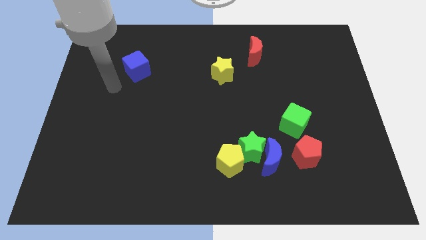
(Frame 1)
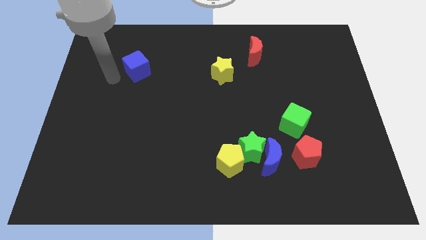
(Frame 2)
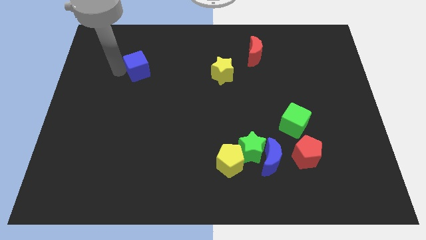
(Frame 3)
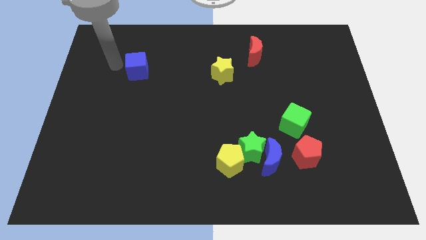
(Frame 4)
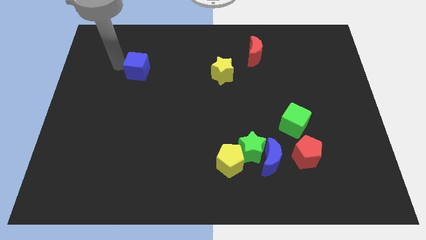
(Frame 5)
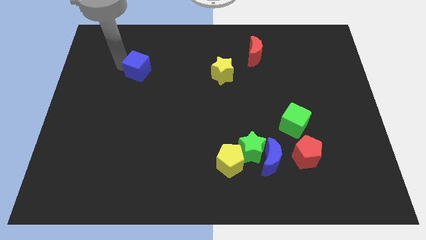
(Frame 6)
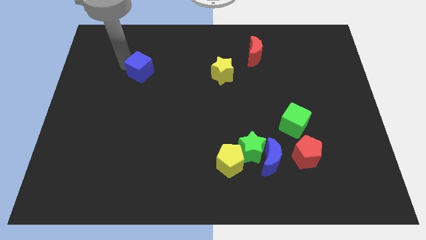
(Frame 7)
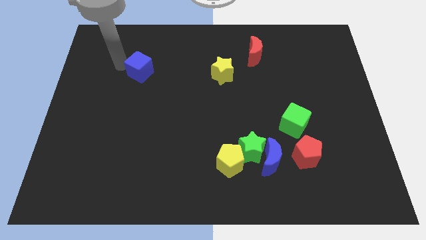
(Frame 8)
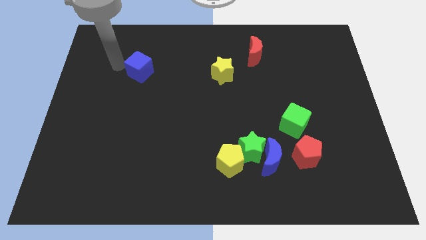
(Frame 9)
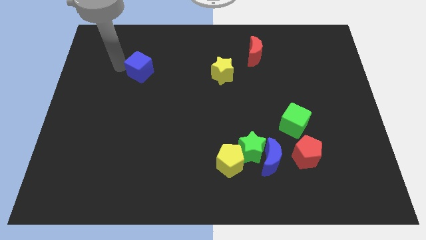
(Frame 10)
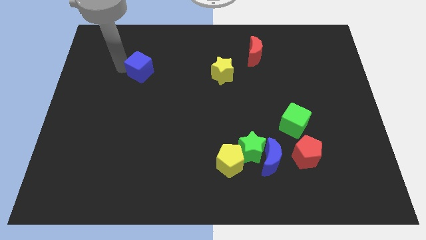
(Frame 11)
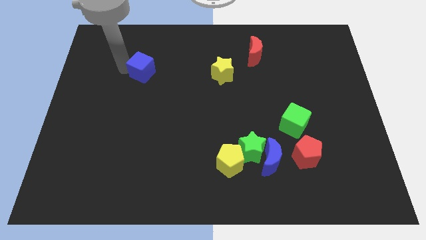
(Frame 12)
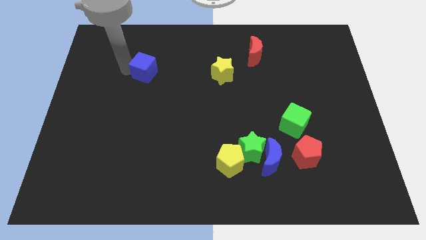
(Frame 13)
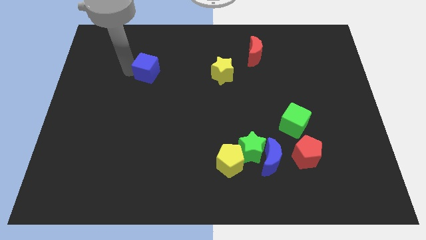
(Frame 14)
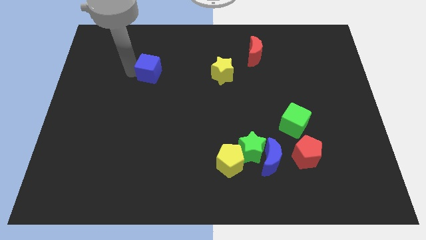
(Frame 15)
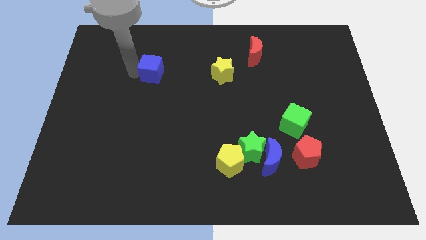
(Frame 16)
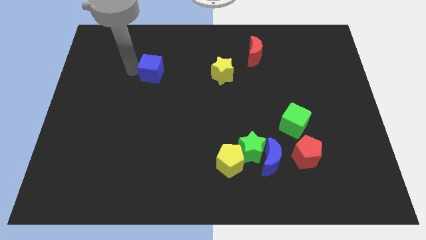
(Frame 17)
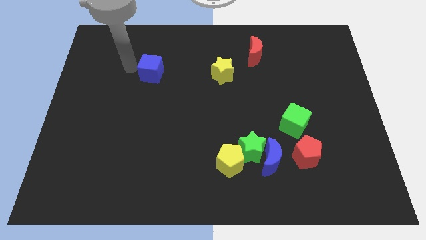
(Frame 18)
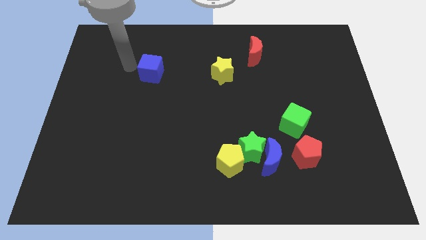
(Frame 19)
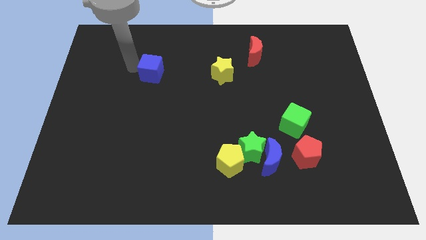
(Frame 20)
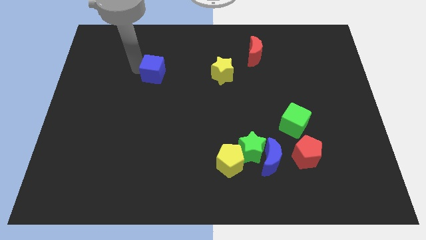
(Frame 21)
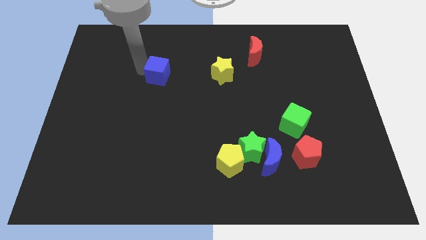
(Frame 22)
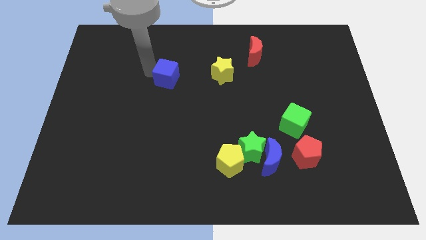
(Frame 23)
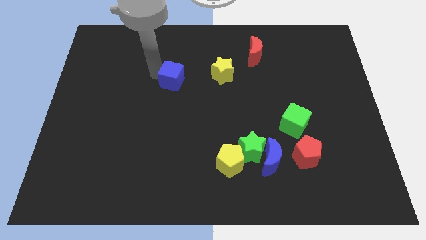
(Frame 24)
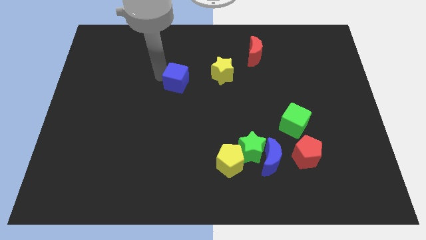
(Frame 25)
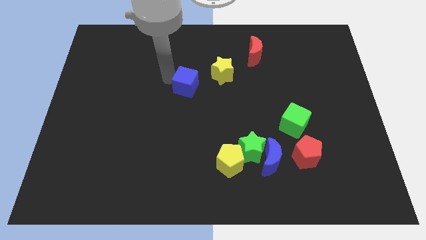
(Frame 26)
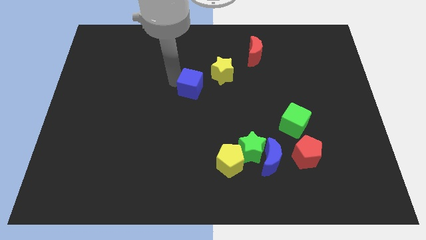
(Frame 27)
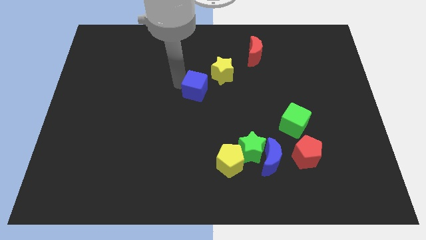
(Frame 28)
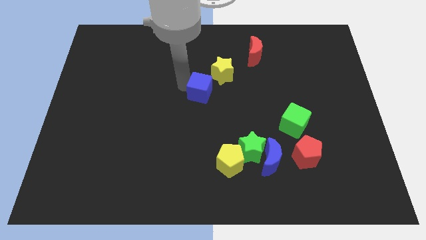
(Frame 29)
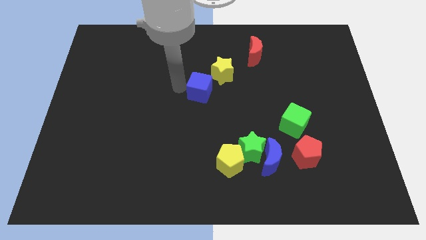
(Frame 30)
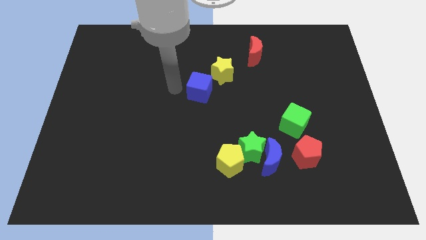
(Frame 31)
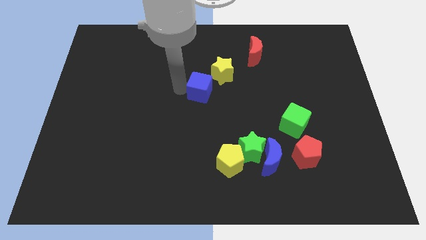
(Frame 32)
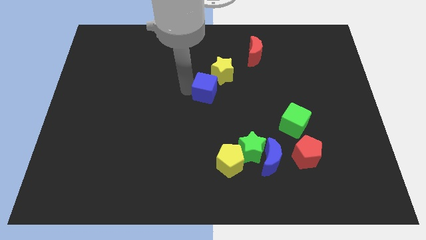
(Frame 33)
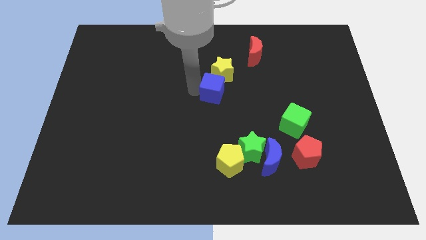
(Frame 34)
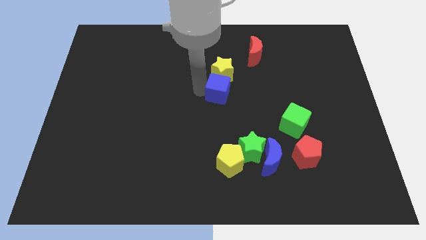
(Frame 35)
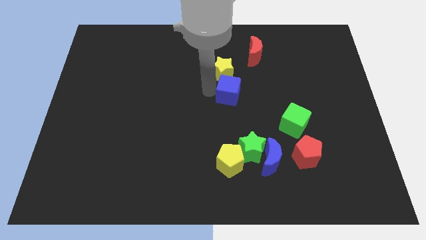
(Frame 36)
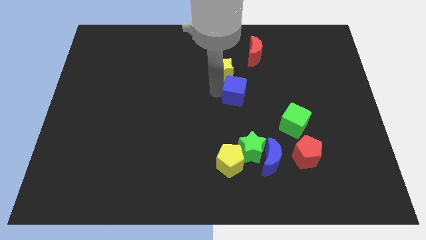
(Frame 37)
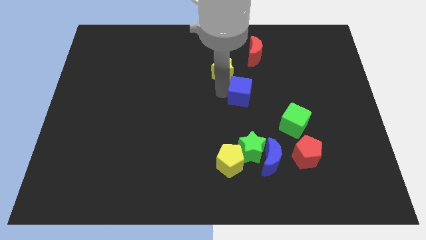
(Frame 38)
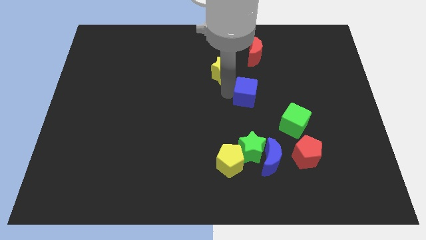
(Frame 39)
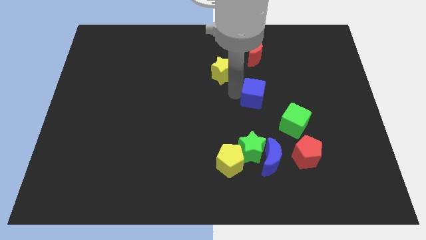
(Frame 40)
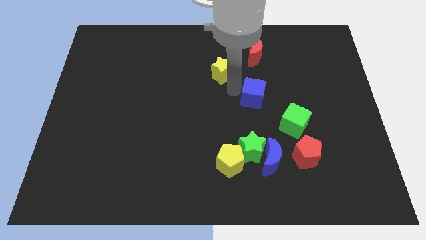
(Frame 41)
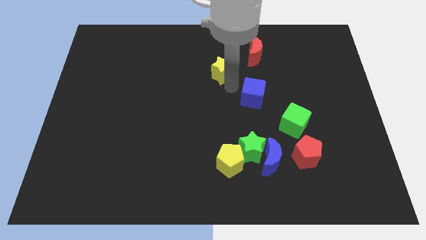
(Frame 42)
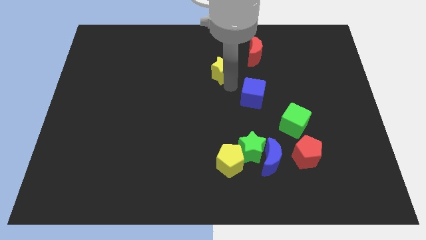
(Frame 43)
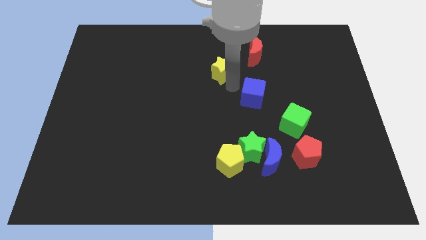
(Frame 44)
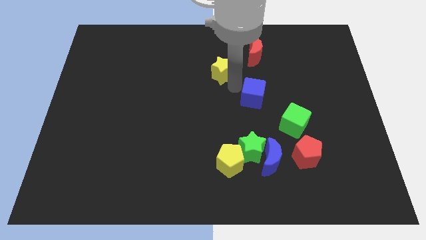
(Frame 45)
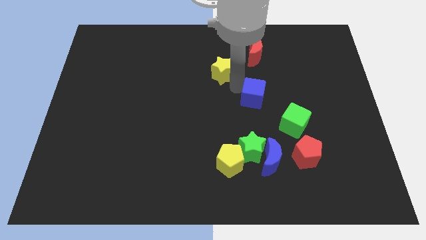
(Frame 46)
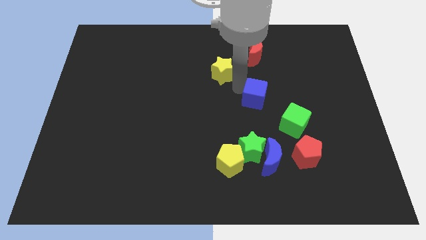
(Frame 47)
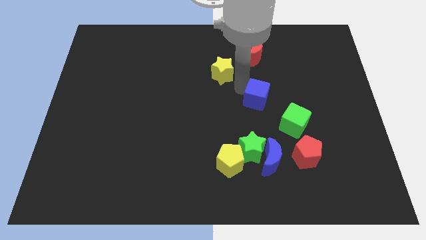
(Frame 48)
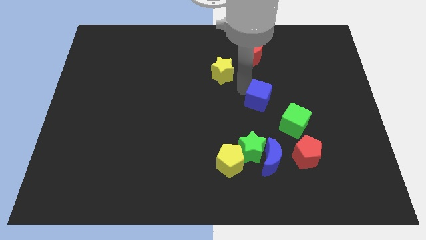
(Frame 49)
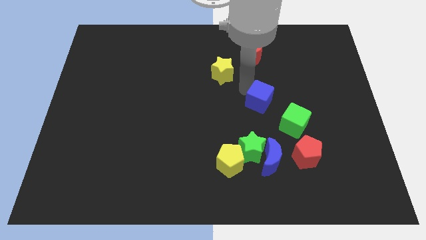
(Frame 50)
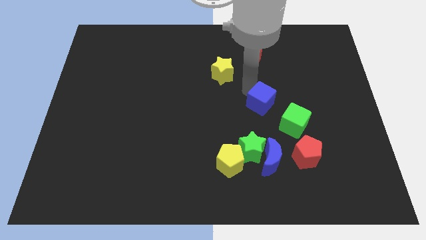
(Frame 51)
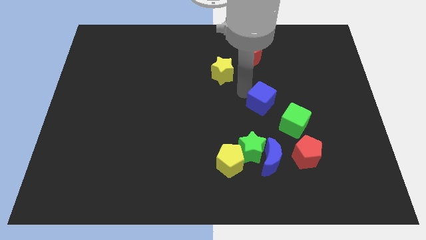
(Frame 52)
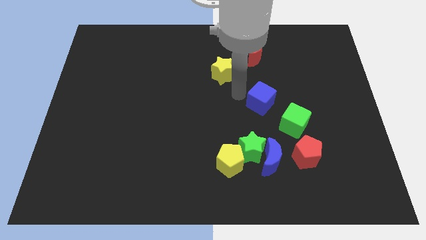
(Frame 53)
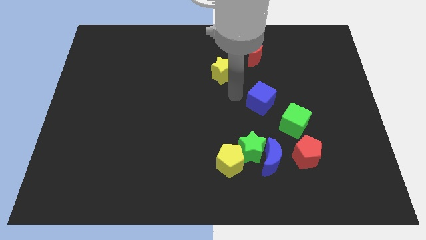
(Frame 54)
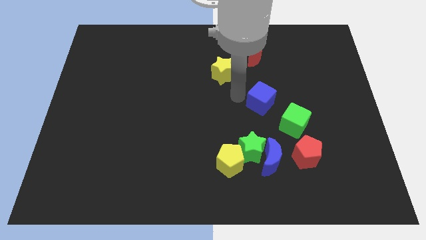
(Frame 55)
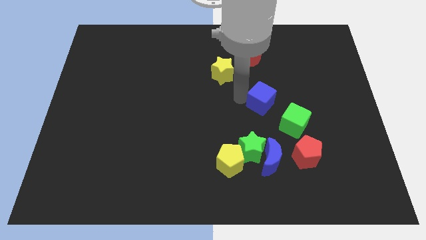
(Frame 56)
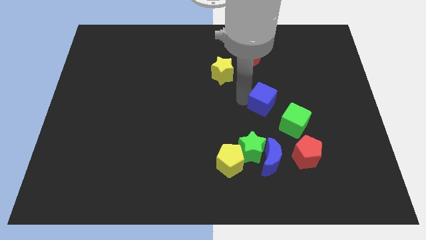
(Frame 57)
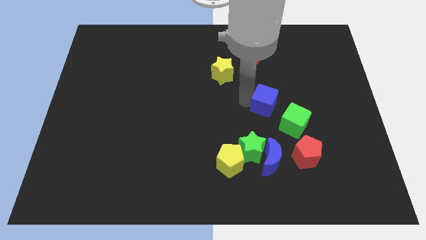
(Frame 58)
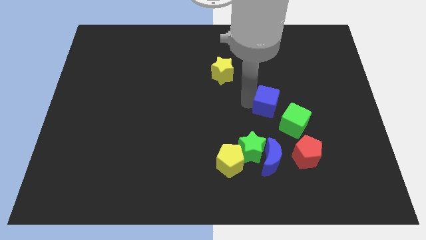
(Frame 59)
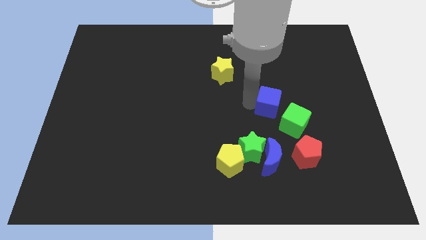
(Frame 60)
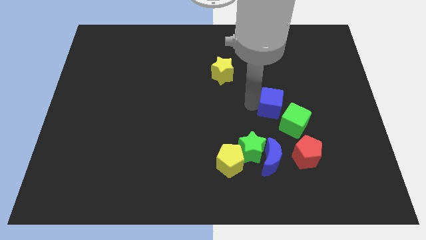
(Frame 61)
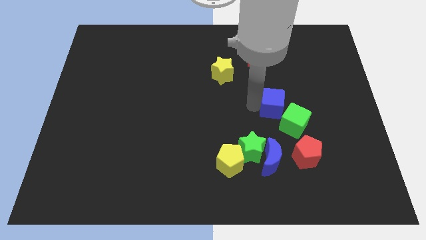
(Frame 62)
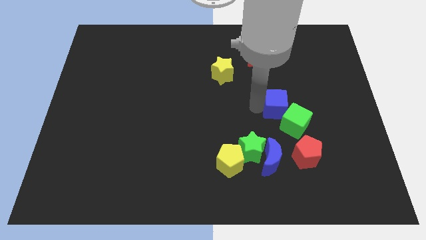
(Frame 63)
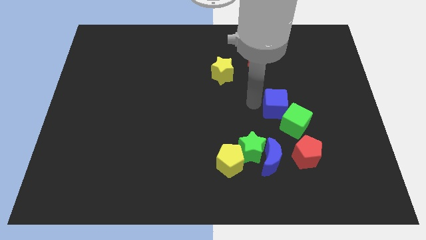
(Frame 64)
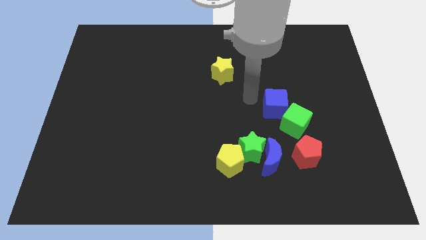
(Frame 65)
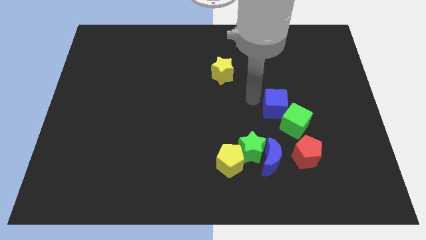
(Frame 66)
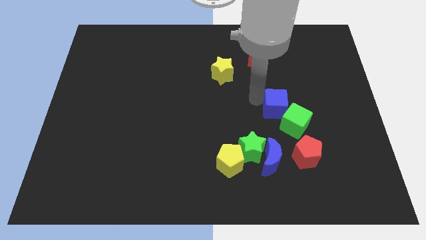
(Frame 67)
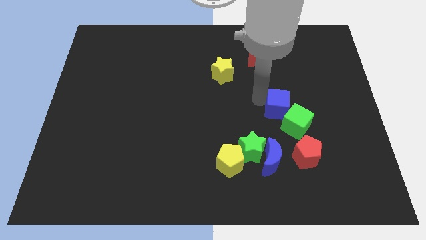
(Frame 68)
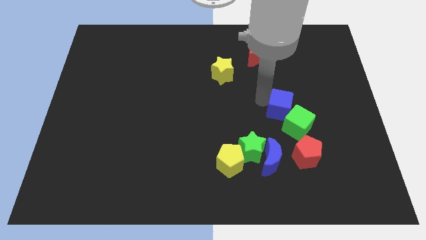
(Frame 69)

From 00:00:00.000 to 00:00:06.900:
slide the blue cube to the top of the red pentagon

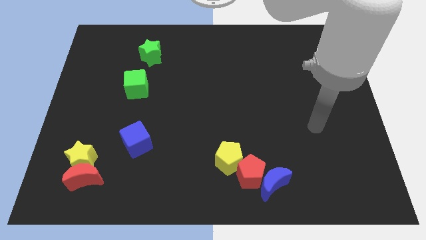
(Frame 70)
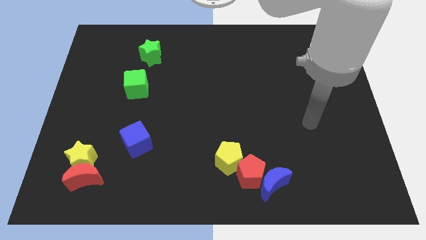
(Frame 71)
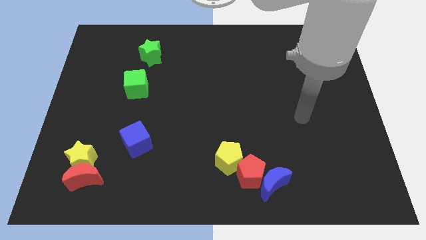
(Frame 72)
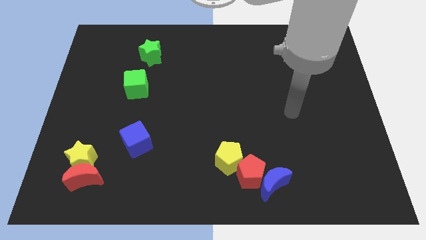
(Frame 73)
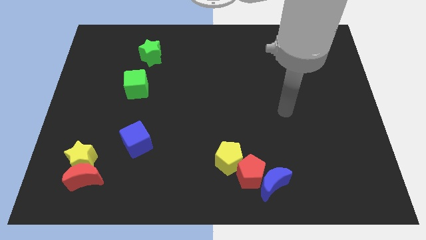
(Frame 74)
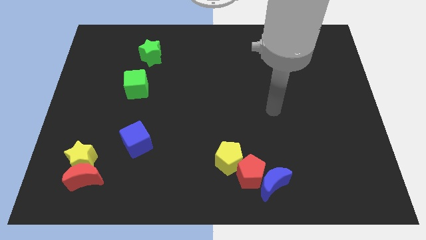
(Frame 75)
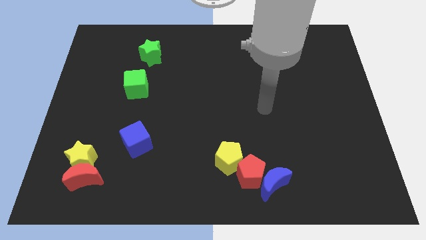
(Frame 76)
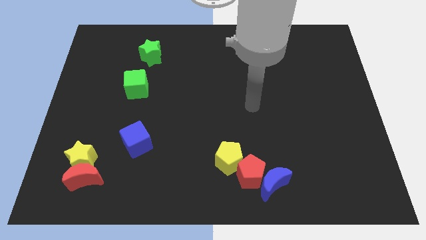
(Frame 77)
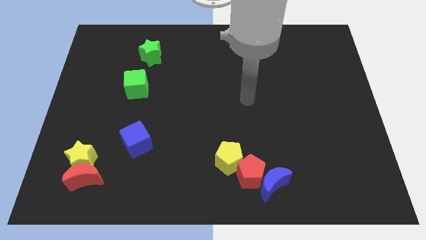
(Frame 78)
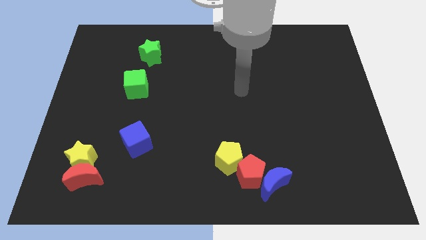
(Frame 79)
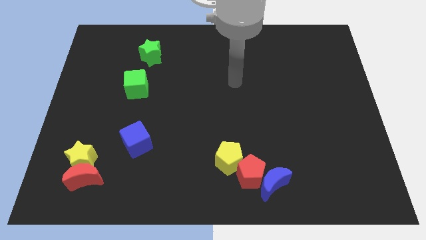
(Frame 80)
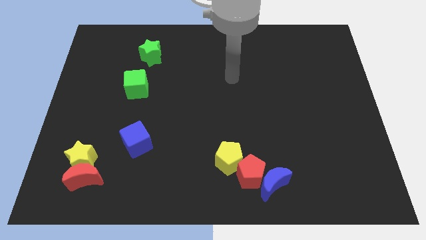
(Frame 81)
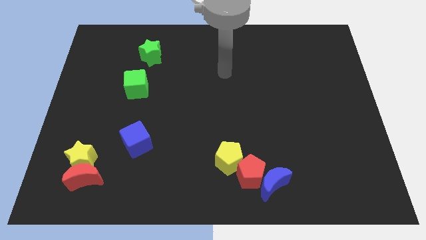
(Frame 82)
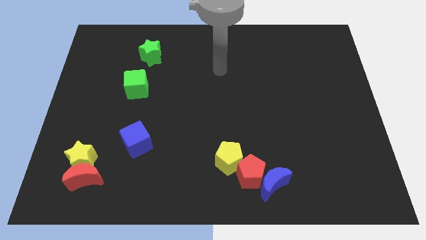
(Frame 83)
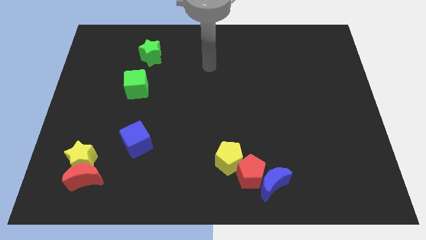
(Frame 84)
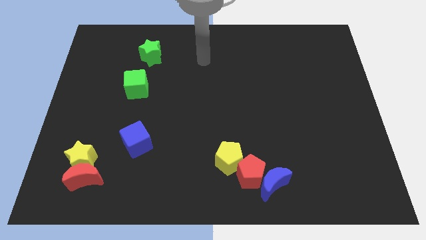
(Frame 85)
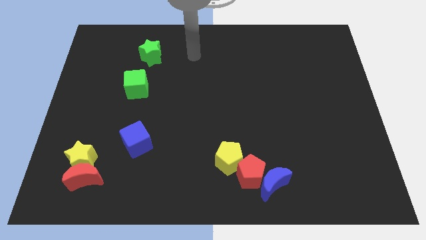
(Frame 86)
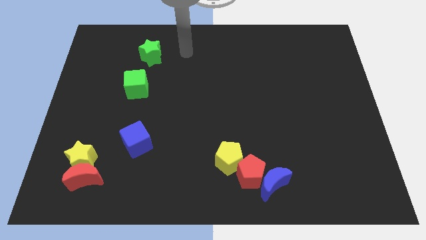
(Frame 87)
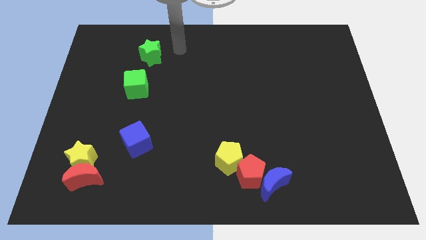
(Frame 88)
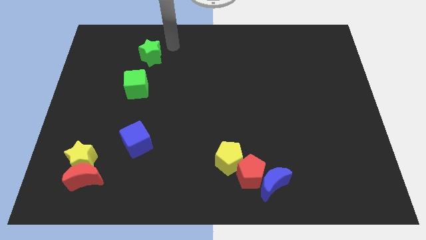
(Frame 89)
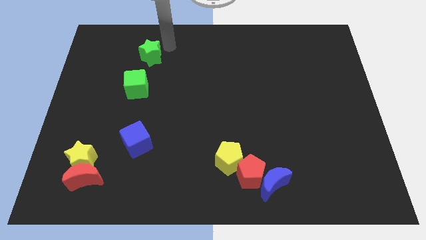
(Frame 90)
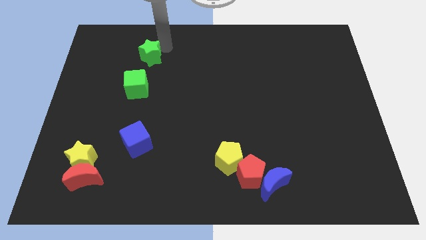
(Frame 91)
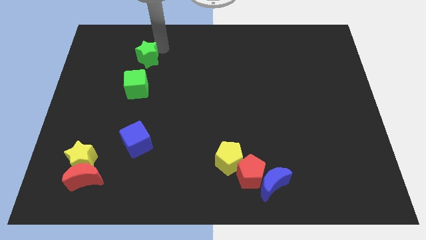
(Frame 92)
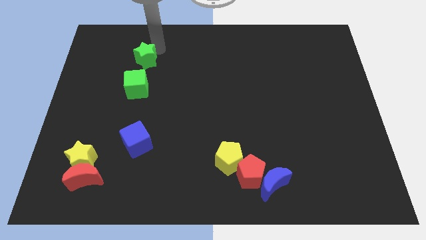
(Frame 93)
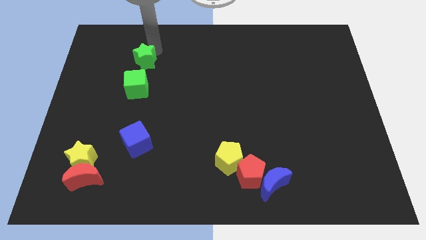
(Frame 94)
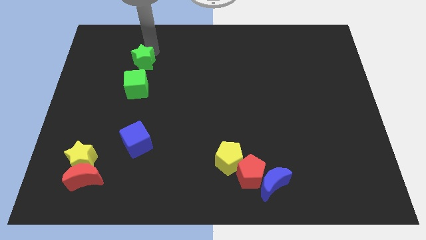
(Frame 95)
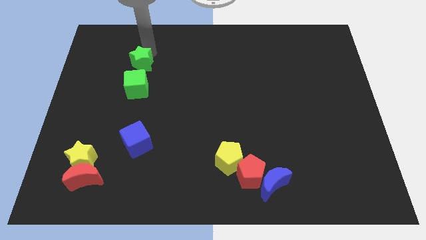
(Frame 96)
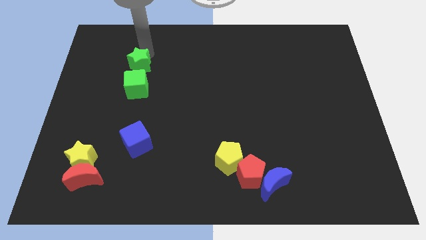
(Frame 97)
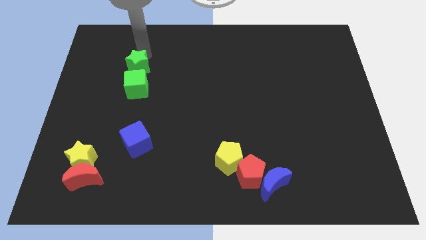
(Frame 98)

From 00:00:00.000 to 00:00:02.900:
slide the green star to the top left of the green cube
